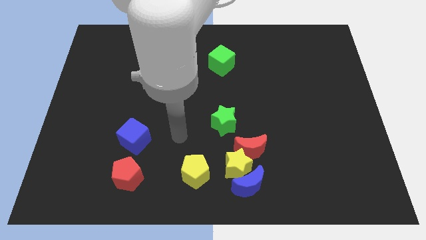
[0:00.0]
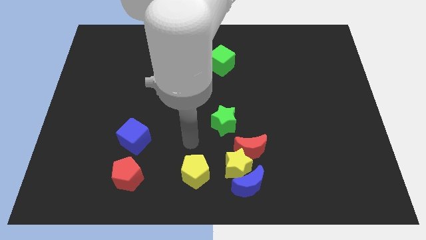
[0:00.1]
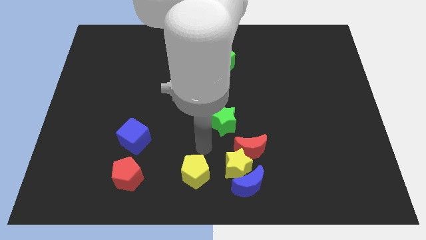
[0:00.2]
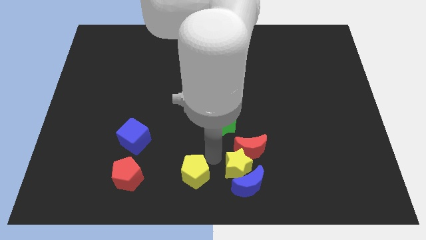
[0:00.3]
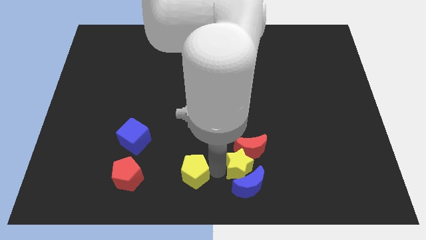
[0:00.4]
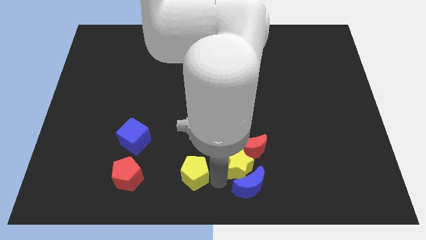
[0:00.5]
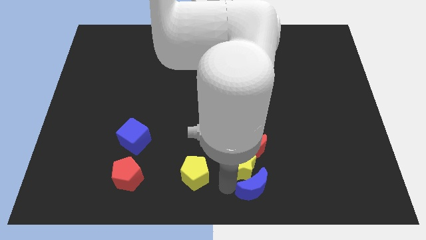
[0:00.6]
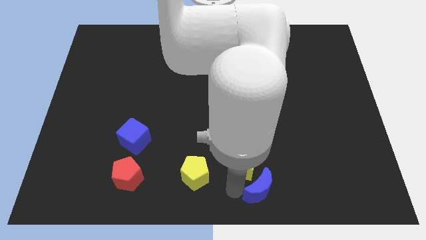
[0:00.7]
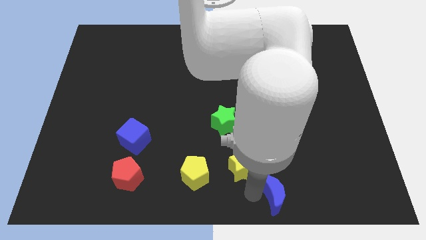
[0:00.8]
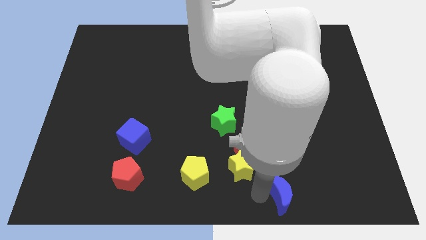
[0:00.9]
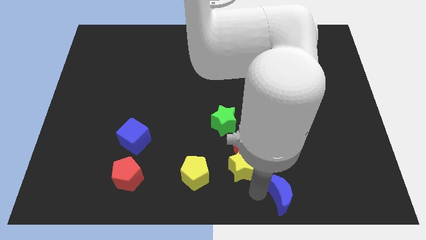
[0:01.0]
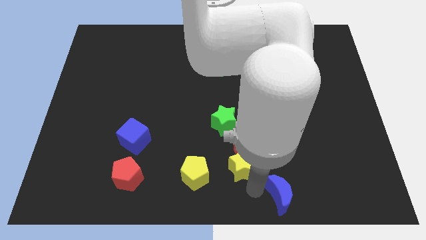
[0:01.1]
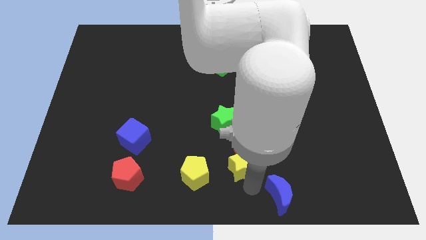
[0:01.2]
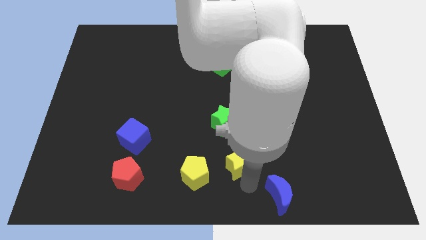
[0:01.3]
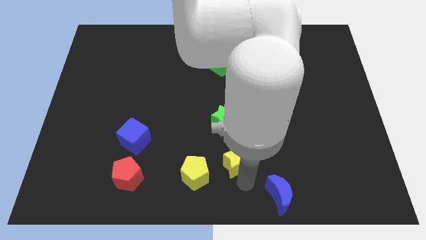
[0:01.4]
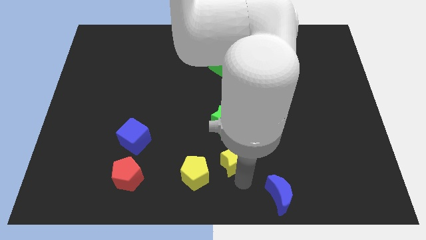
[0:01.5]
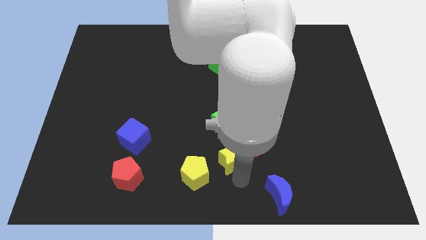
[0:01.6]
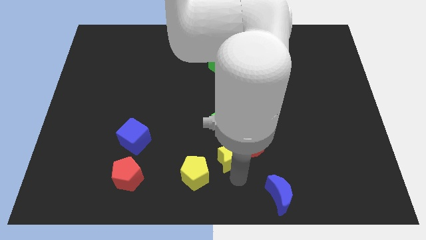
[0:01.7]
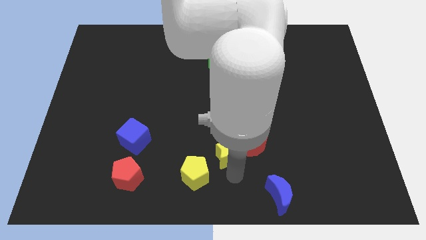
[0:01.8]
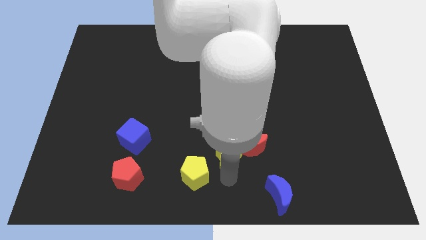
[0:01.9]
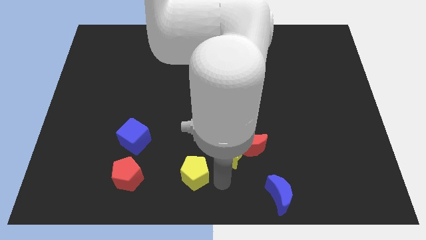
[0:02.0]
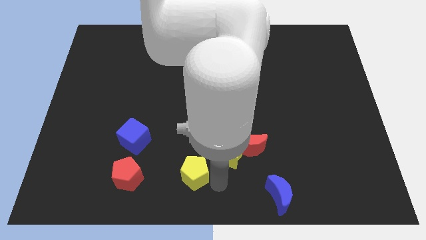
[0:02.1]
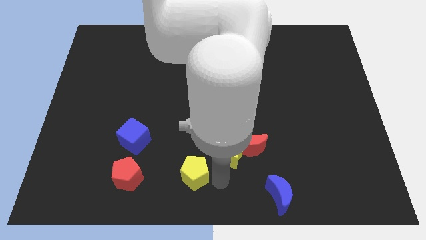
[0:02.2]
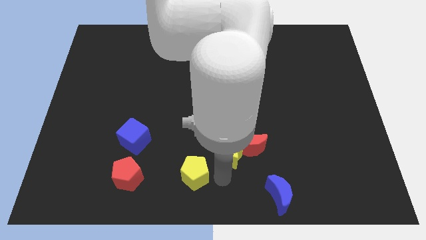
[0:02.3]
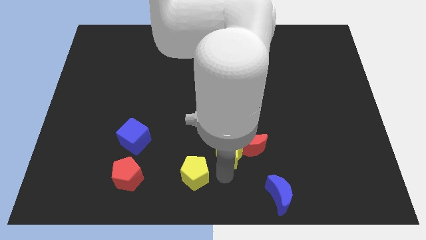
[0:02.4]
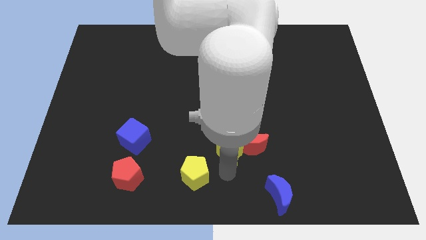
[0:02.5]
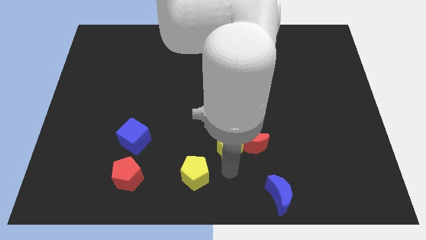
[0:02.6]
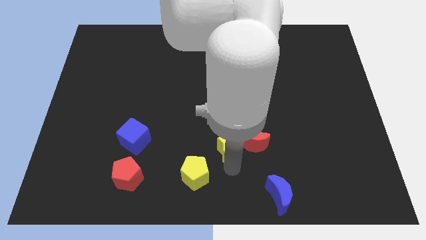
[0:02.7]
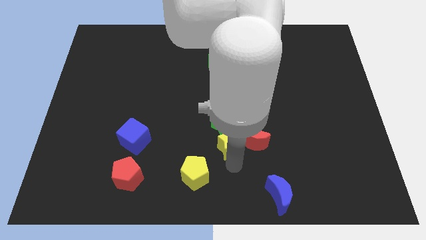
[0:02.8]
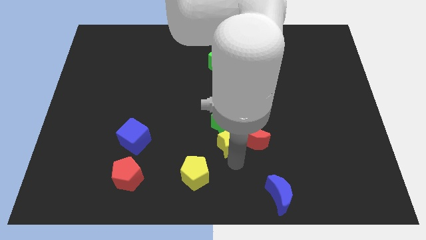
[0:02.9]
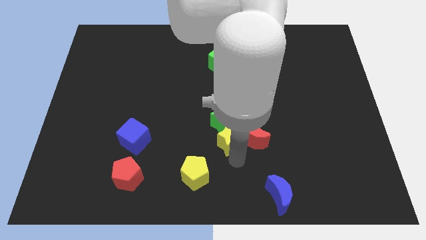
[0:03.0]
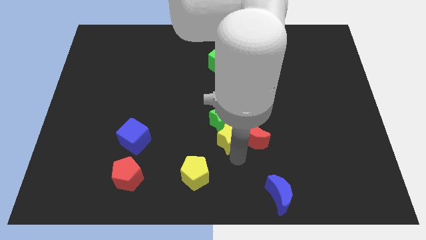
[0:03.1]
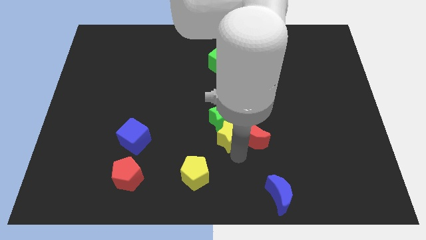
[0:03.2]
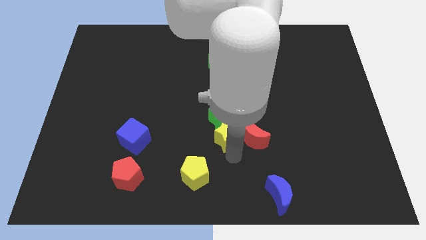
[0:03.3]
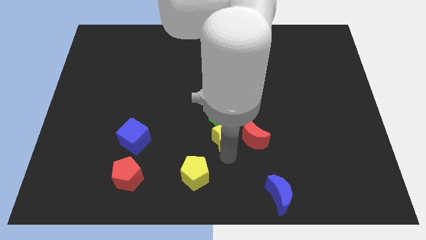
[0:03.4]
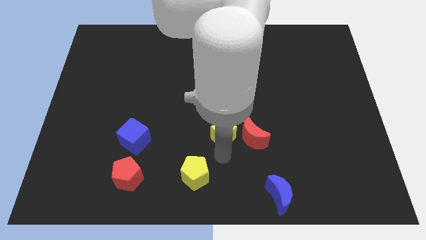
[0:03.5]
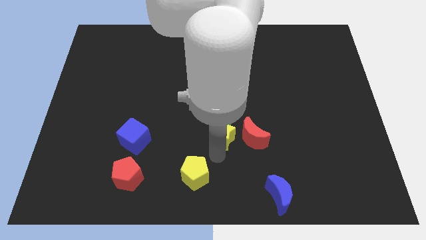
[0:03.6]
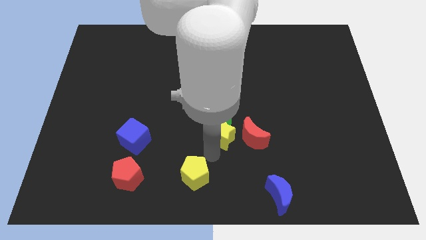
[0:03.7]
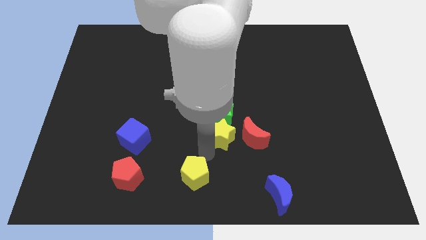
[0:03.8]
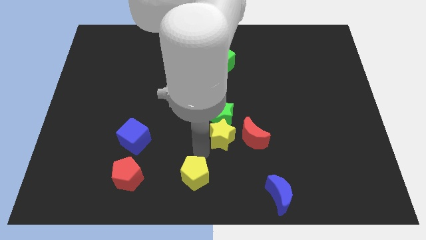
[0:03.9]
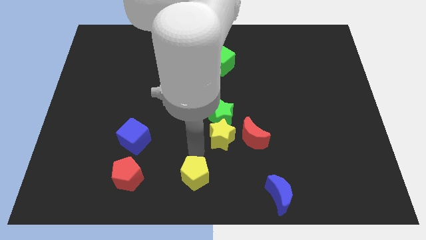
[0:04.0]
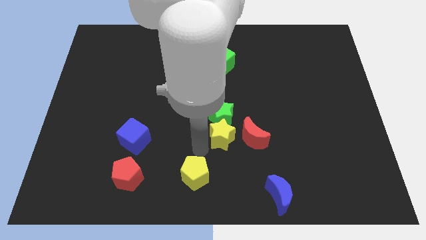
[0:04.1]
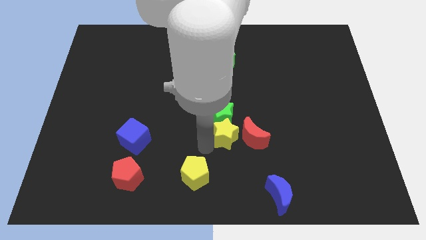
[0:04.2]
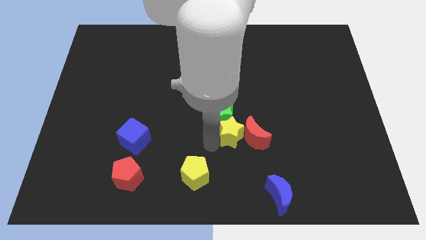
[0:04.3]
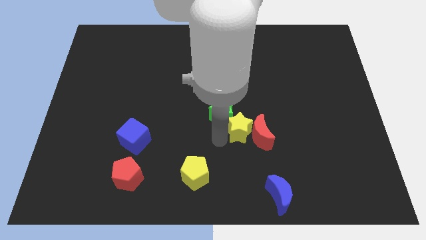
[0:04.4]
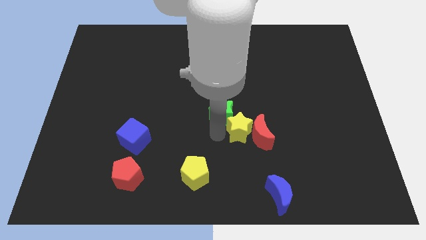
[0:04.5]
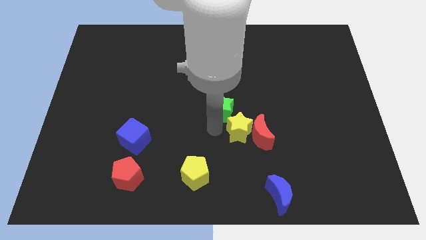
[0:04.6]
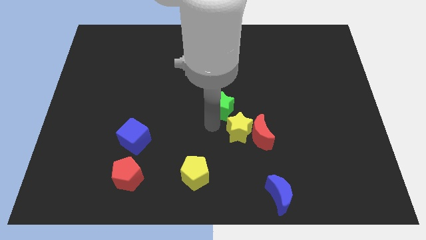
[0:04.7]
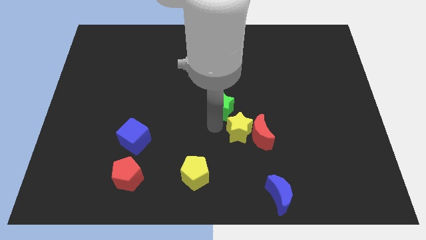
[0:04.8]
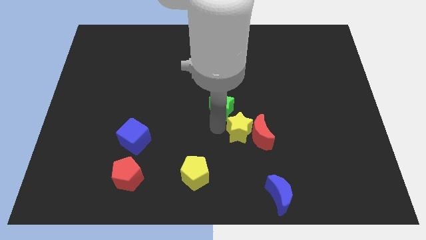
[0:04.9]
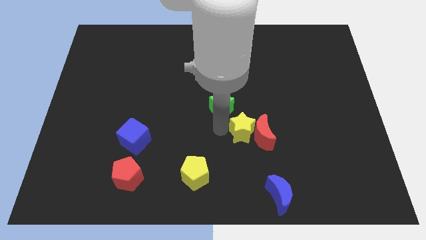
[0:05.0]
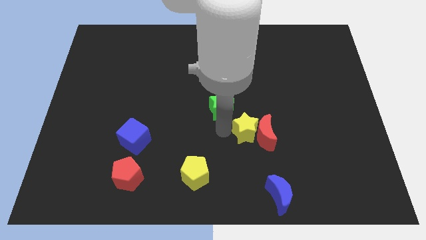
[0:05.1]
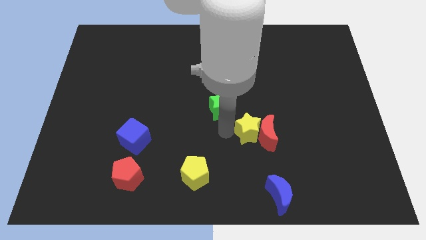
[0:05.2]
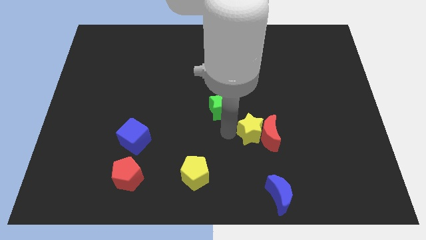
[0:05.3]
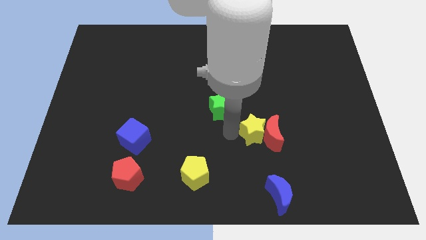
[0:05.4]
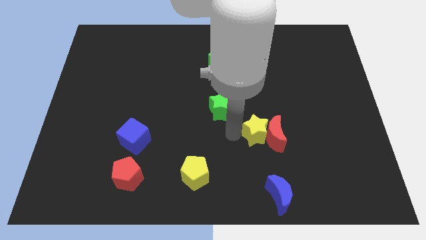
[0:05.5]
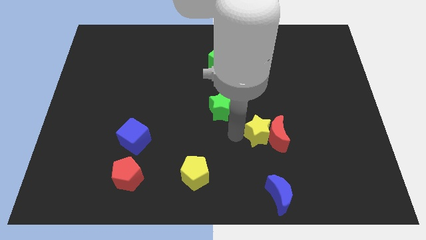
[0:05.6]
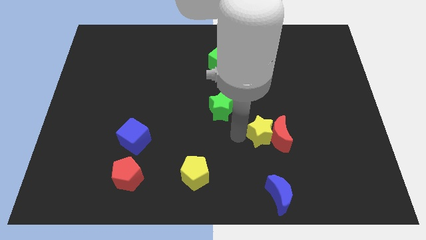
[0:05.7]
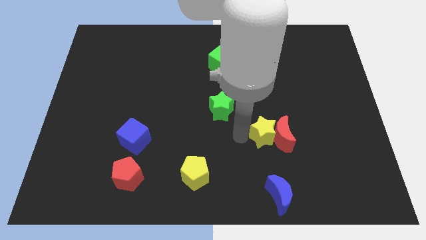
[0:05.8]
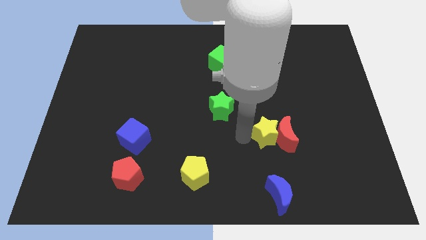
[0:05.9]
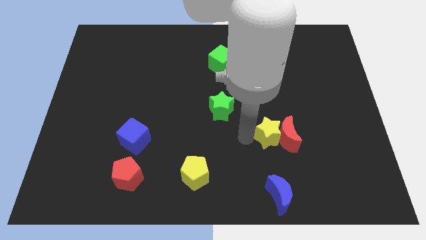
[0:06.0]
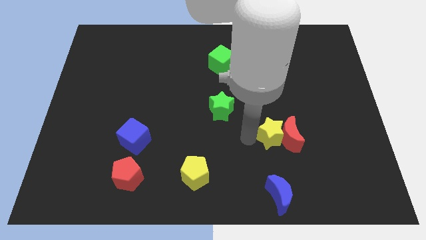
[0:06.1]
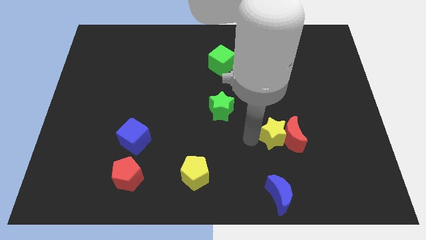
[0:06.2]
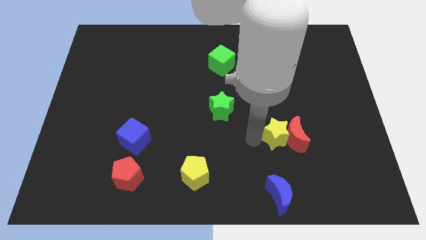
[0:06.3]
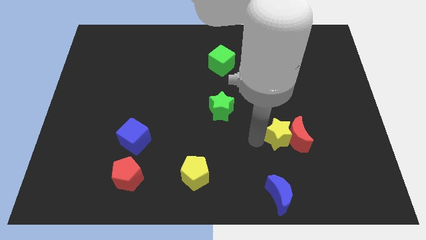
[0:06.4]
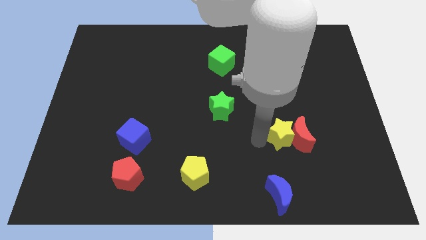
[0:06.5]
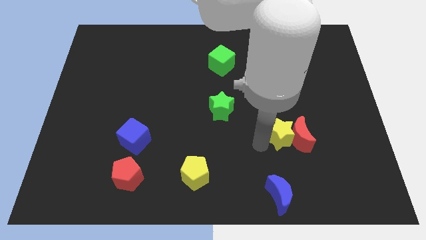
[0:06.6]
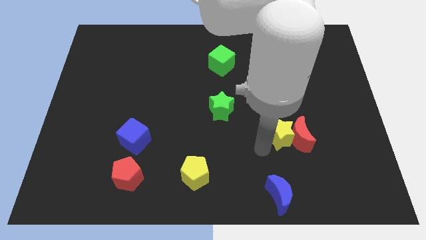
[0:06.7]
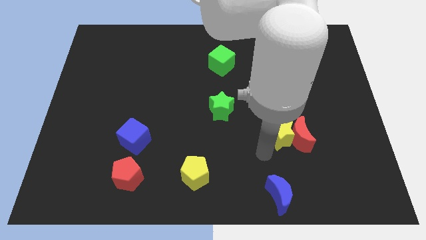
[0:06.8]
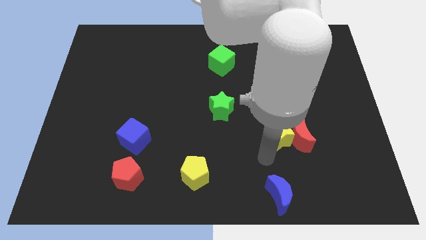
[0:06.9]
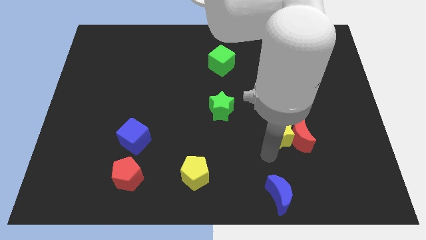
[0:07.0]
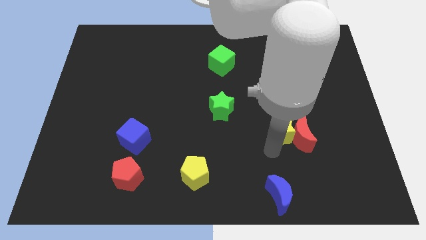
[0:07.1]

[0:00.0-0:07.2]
pull the yellow star apart from the group

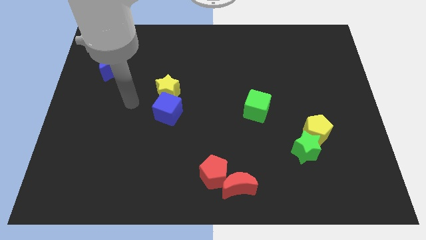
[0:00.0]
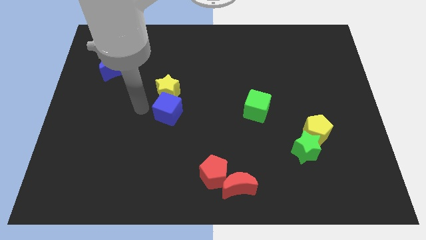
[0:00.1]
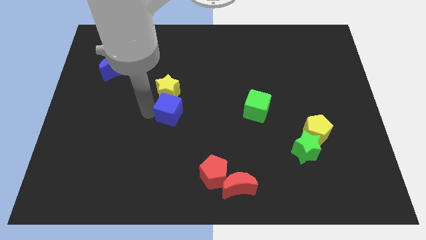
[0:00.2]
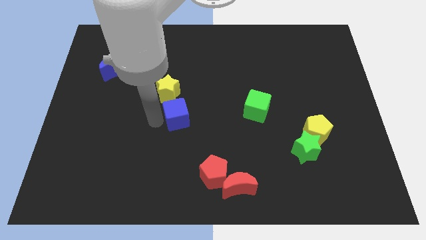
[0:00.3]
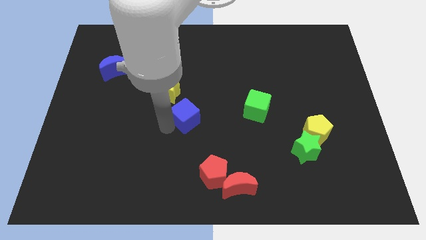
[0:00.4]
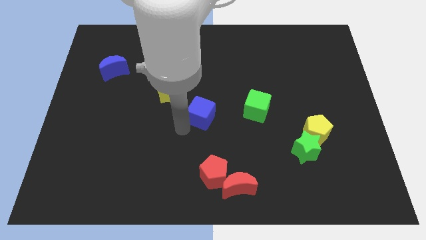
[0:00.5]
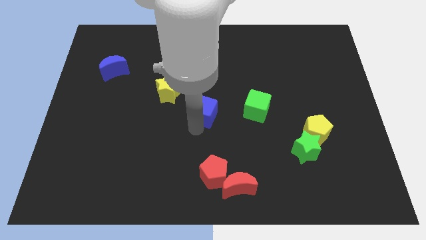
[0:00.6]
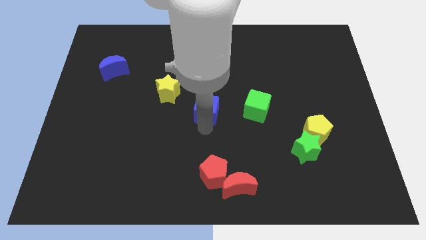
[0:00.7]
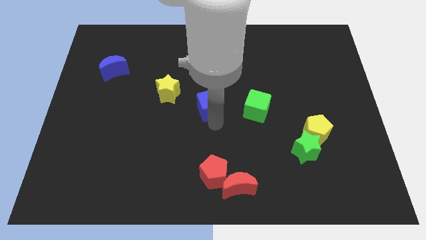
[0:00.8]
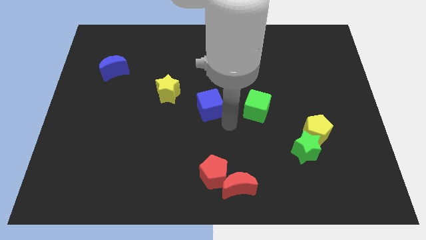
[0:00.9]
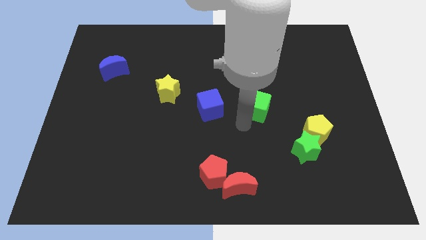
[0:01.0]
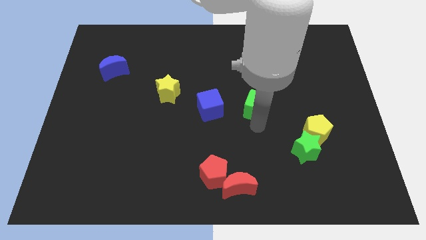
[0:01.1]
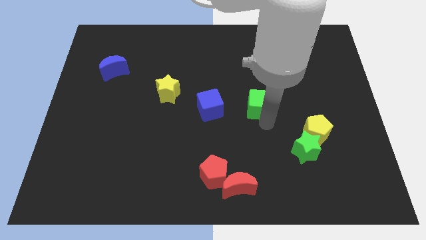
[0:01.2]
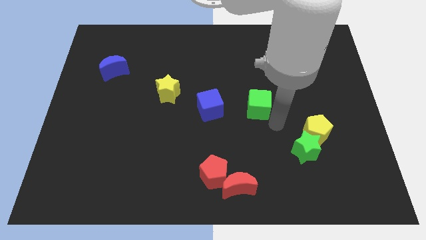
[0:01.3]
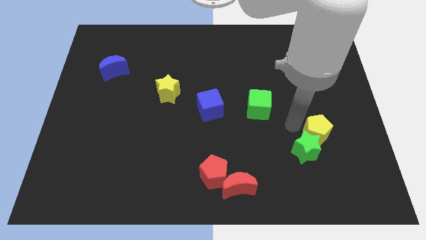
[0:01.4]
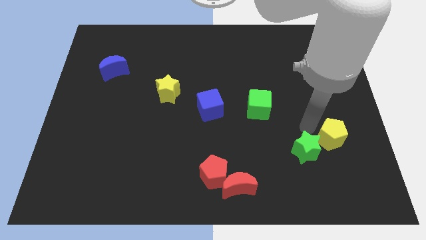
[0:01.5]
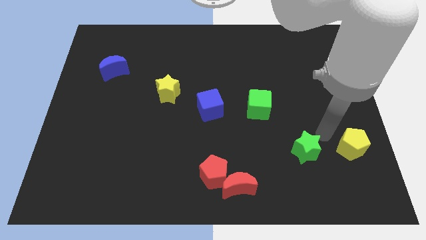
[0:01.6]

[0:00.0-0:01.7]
move the green star away from the yellow pentagon

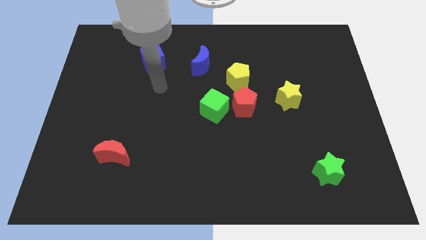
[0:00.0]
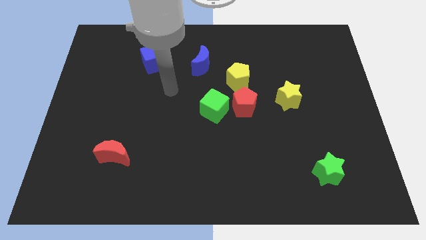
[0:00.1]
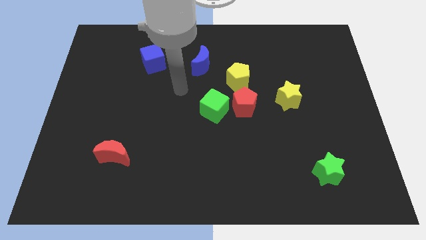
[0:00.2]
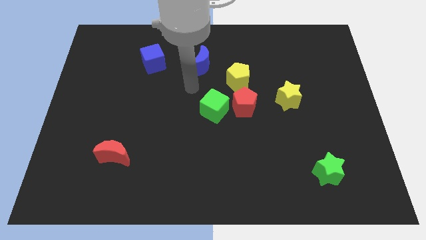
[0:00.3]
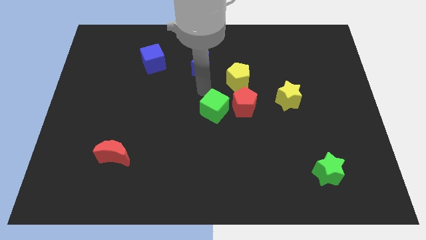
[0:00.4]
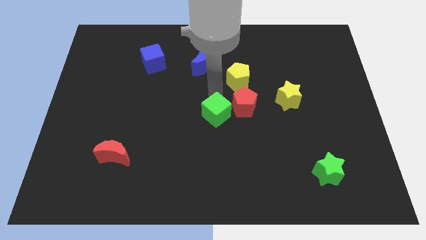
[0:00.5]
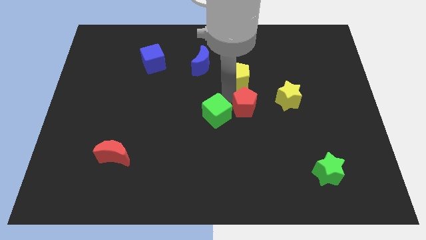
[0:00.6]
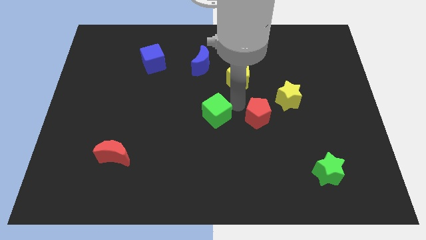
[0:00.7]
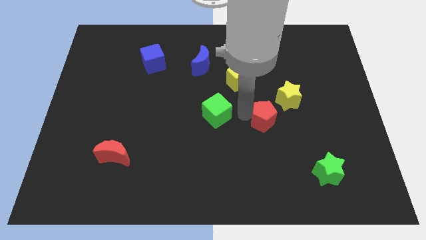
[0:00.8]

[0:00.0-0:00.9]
separate the green cube from the red pentagon
